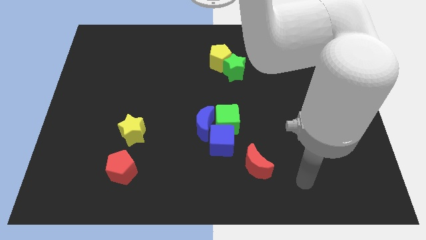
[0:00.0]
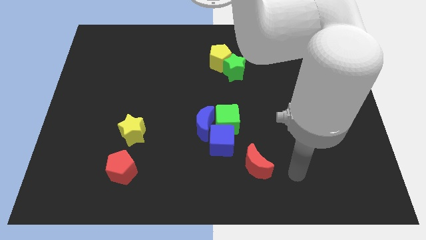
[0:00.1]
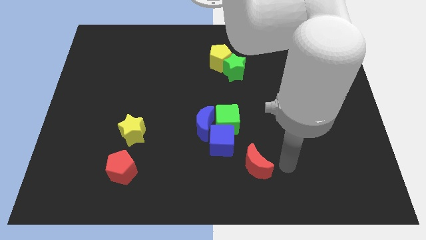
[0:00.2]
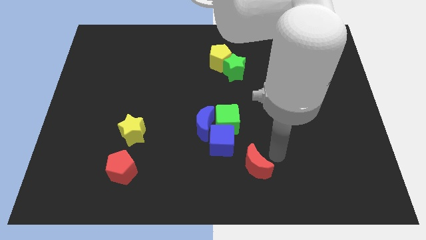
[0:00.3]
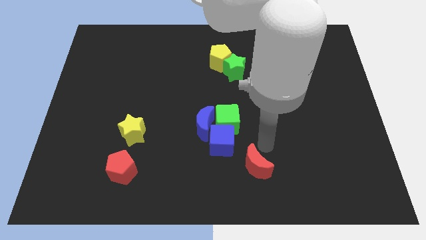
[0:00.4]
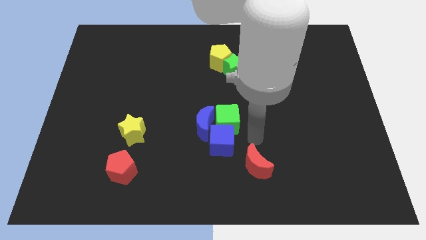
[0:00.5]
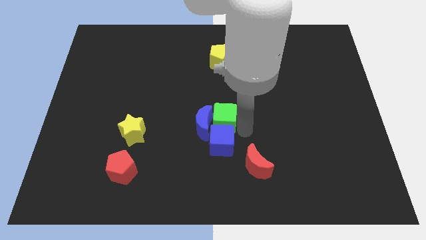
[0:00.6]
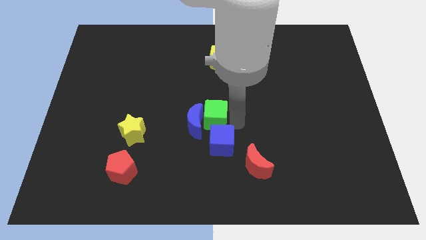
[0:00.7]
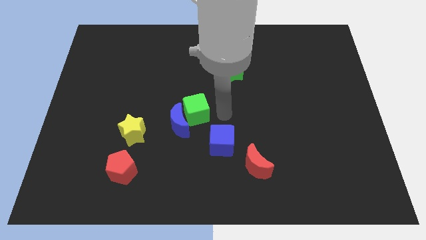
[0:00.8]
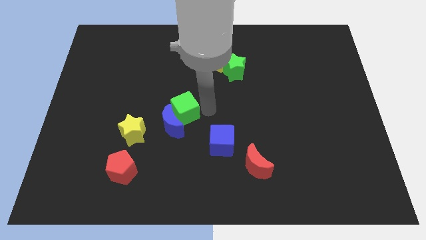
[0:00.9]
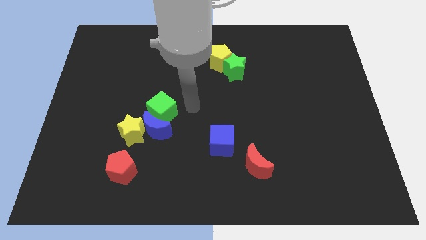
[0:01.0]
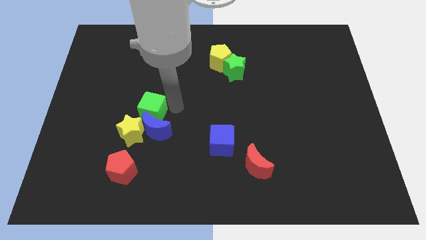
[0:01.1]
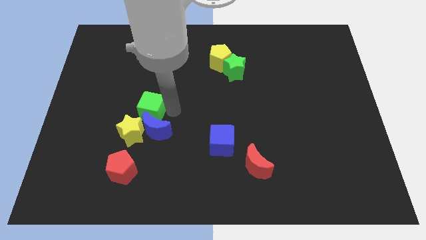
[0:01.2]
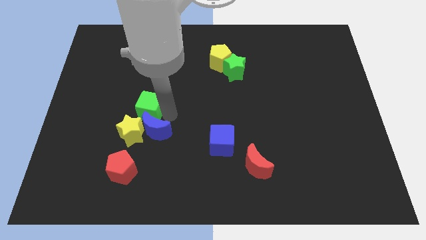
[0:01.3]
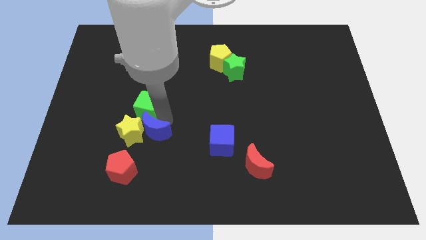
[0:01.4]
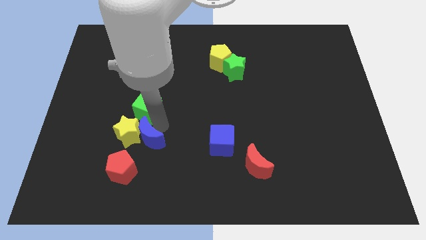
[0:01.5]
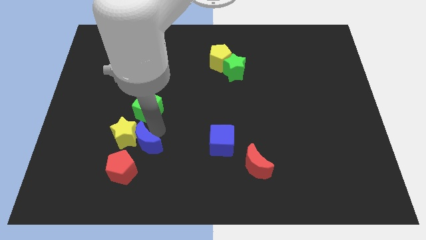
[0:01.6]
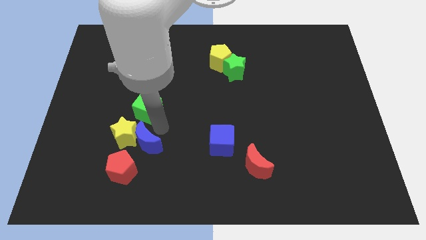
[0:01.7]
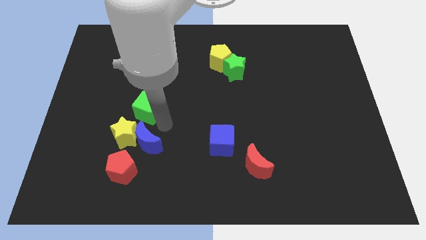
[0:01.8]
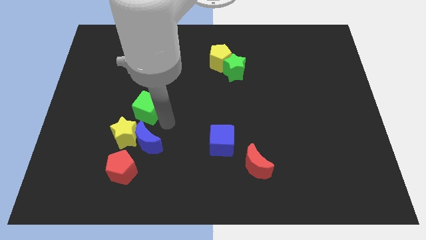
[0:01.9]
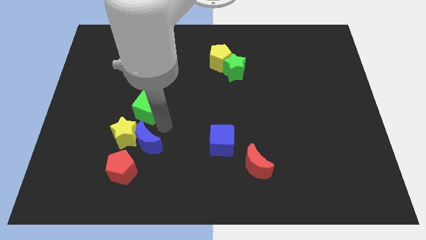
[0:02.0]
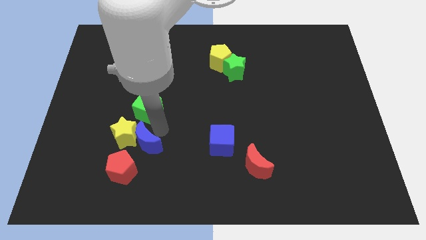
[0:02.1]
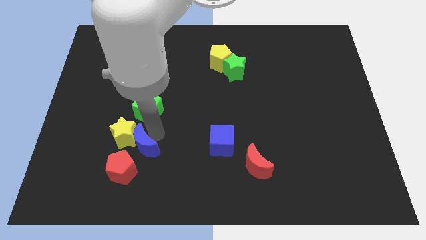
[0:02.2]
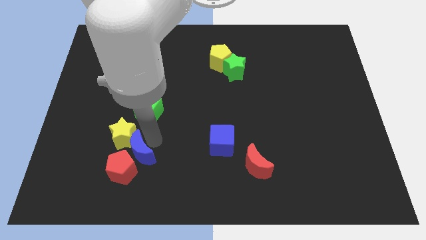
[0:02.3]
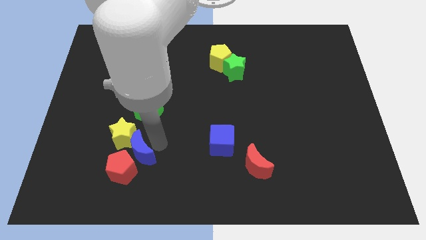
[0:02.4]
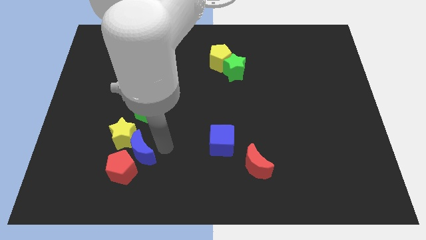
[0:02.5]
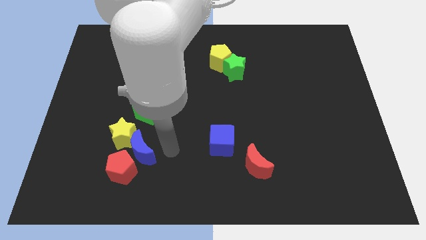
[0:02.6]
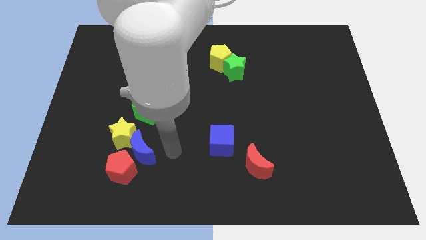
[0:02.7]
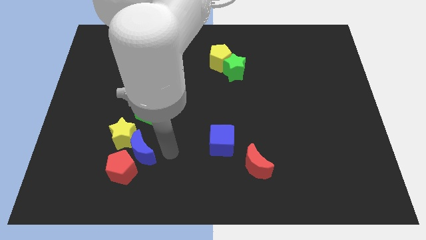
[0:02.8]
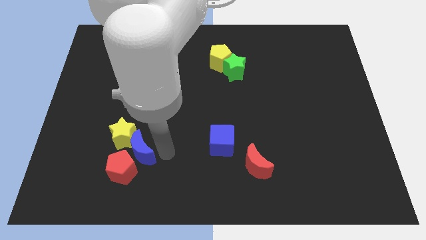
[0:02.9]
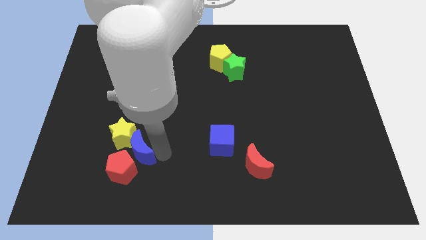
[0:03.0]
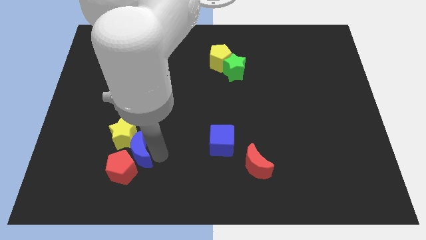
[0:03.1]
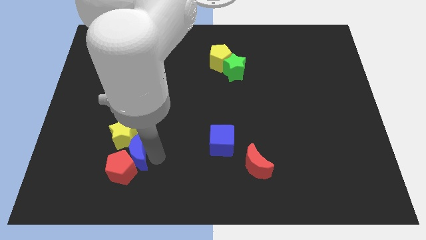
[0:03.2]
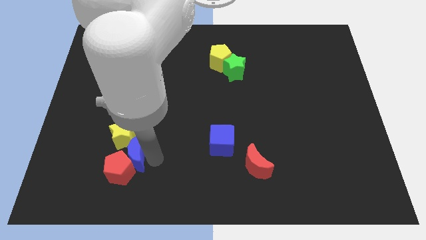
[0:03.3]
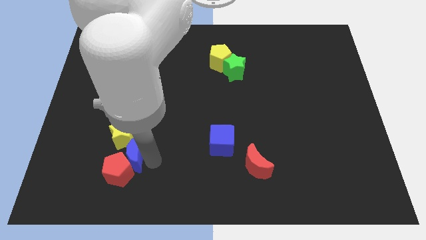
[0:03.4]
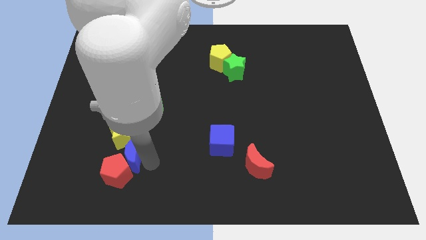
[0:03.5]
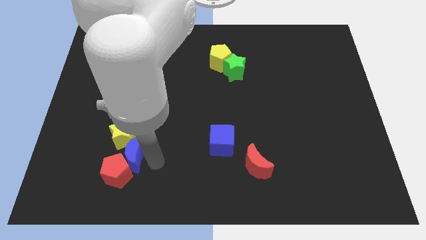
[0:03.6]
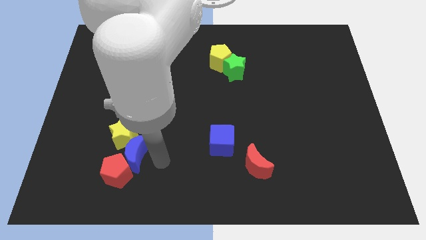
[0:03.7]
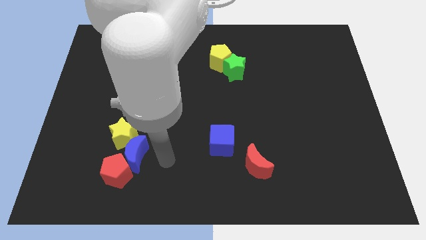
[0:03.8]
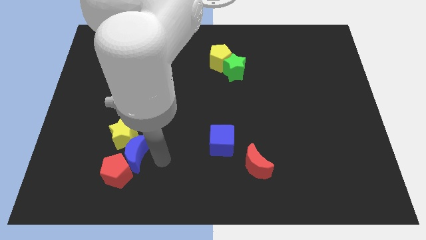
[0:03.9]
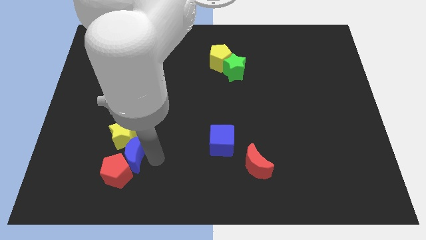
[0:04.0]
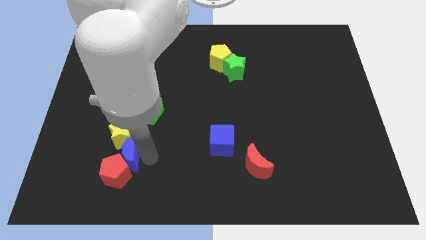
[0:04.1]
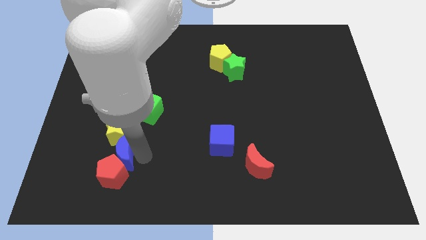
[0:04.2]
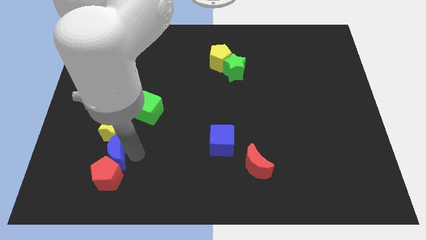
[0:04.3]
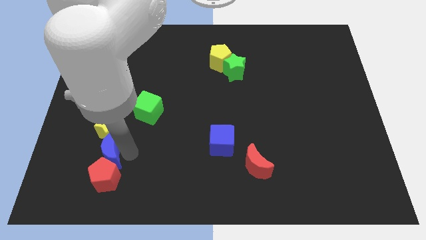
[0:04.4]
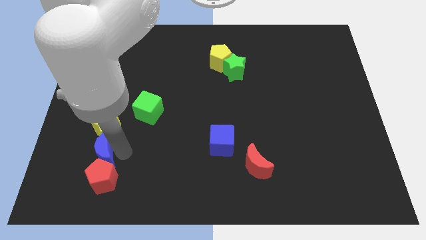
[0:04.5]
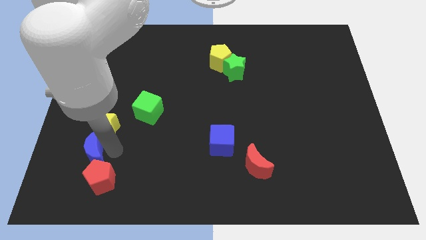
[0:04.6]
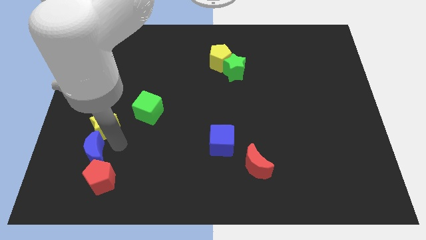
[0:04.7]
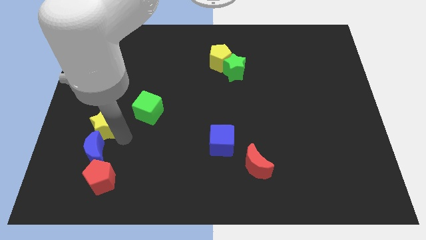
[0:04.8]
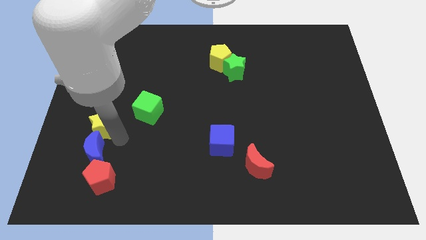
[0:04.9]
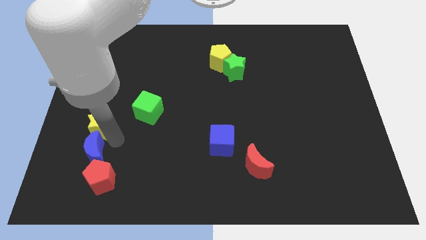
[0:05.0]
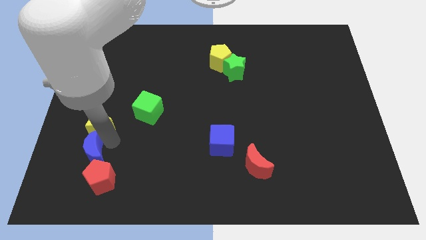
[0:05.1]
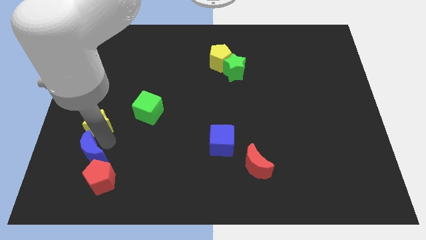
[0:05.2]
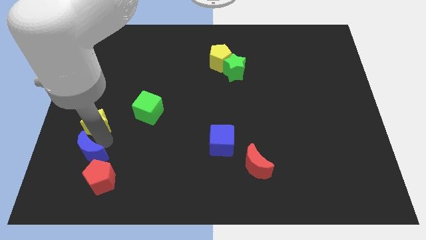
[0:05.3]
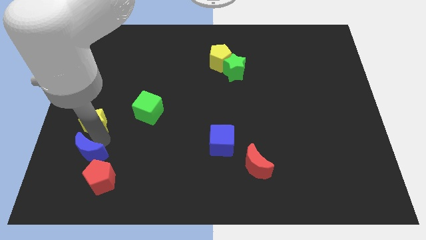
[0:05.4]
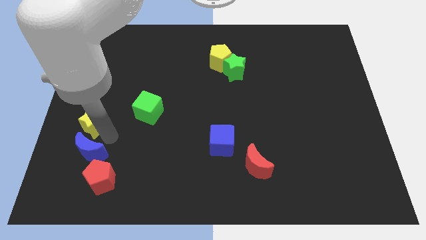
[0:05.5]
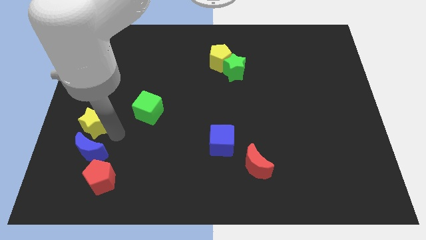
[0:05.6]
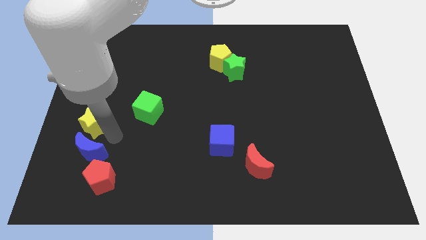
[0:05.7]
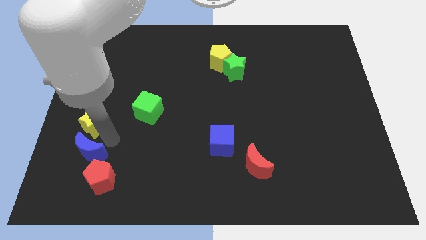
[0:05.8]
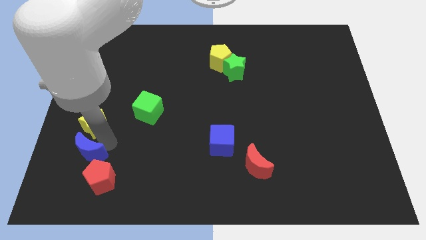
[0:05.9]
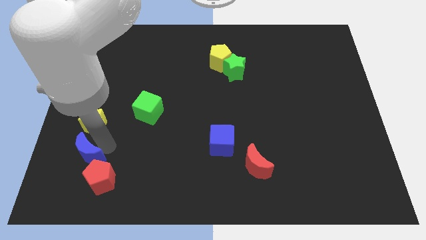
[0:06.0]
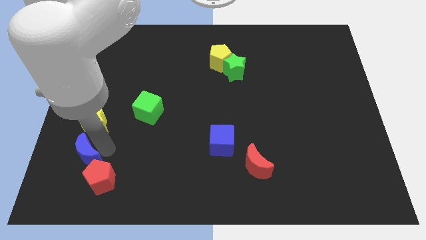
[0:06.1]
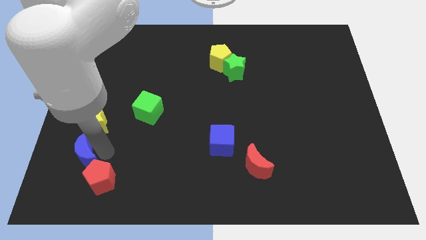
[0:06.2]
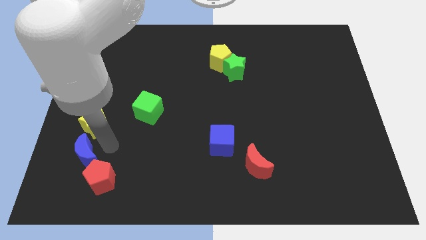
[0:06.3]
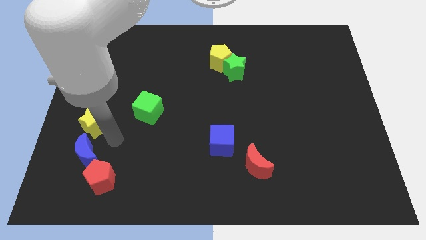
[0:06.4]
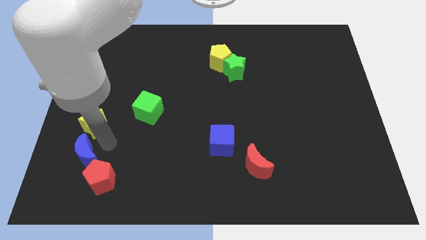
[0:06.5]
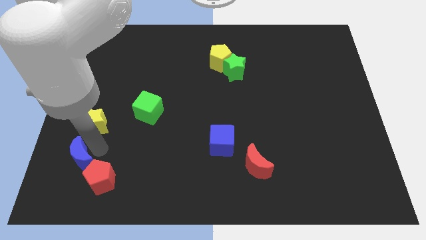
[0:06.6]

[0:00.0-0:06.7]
slide the blue moon to the left of the red pentagon

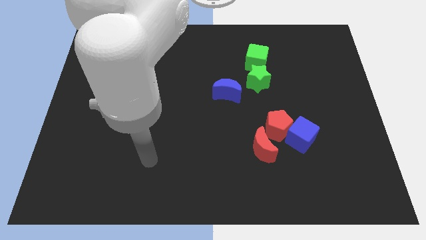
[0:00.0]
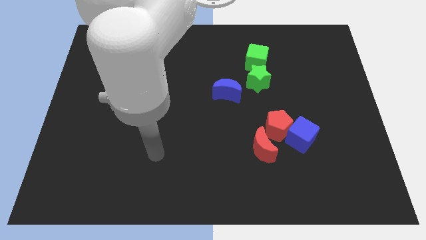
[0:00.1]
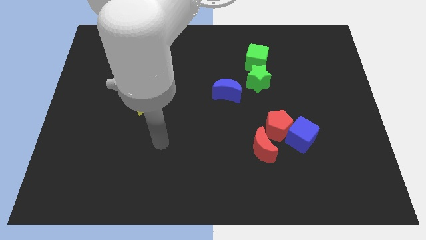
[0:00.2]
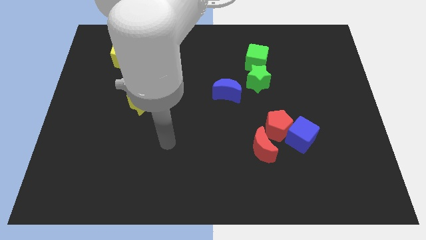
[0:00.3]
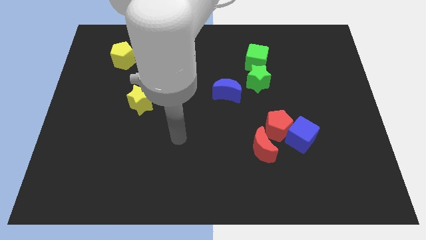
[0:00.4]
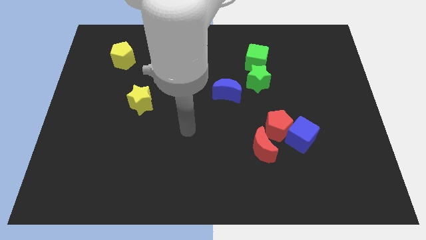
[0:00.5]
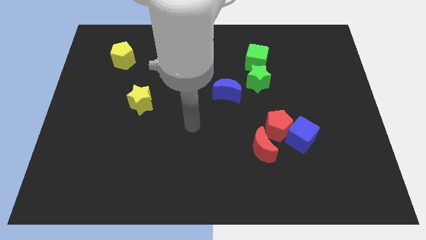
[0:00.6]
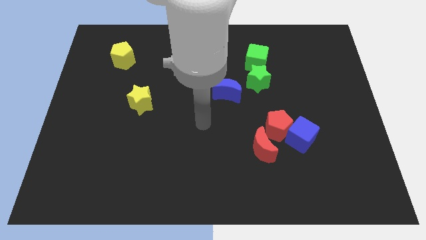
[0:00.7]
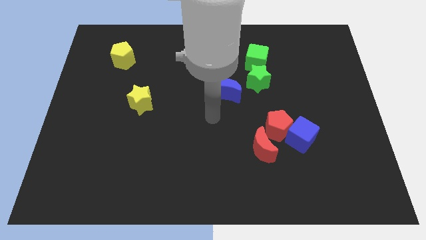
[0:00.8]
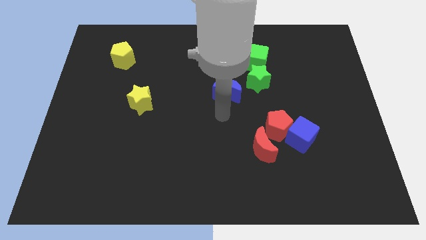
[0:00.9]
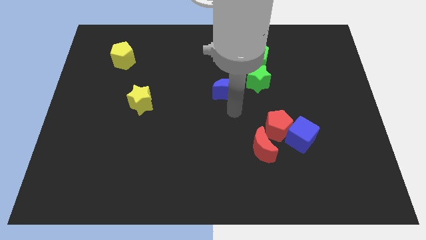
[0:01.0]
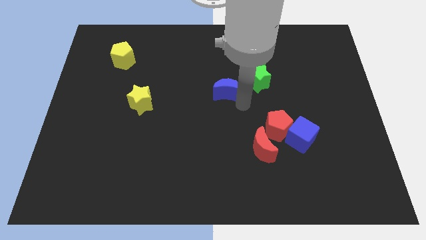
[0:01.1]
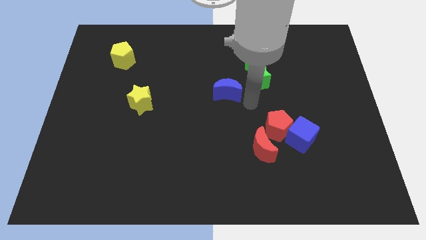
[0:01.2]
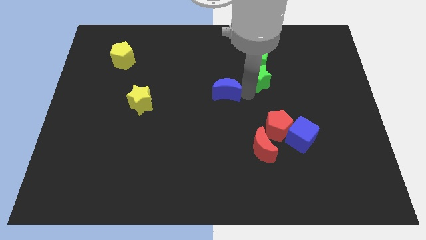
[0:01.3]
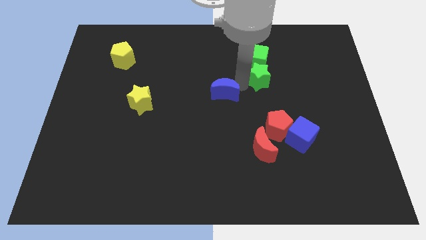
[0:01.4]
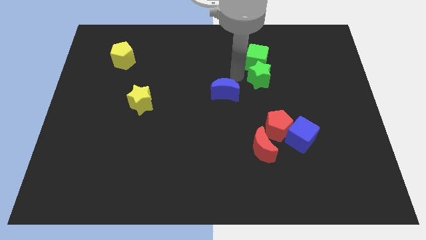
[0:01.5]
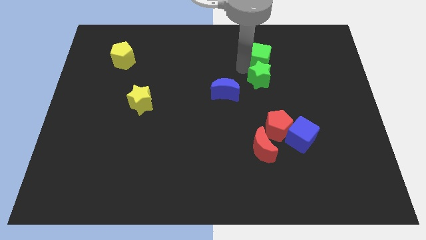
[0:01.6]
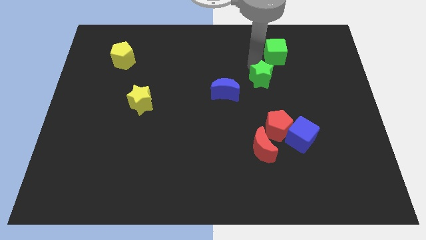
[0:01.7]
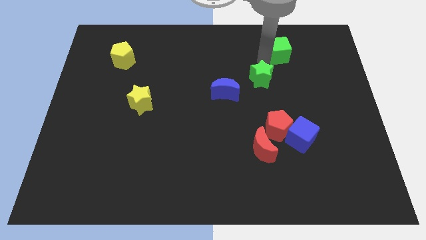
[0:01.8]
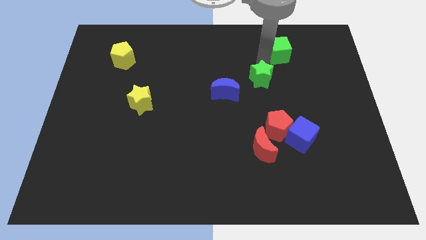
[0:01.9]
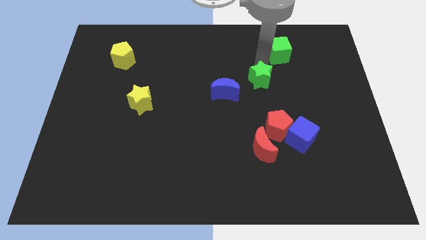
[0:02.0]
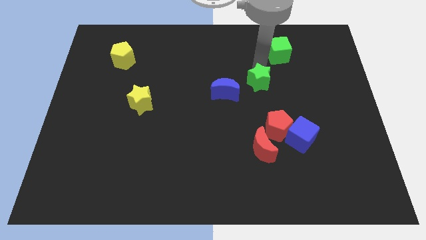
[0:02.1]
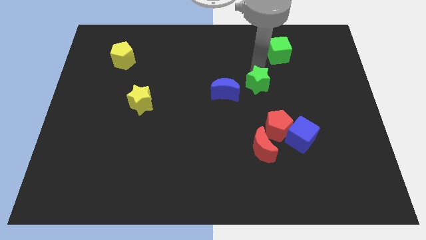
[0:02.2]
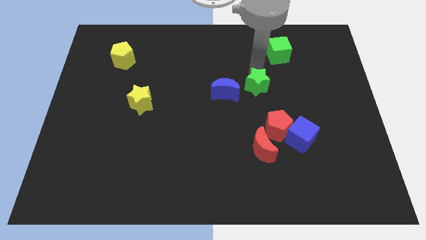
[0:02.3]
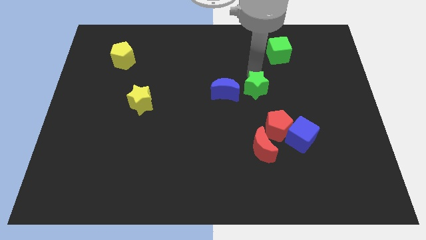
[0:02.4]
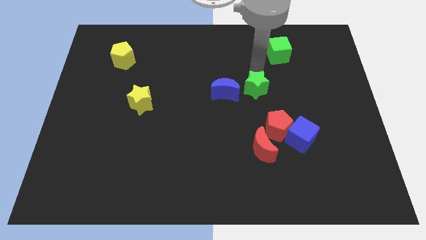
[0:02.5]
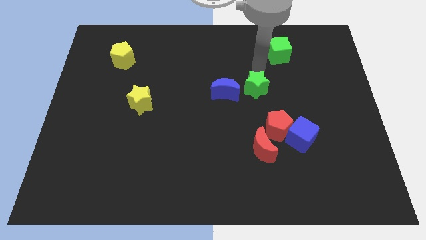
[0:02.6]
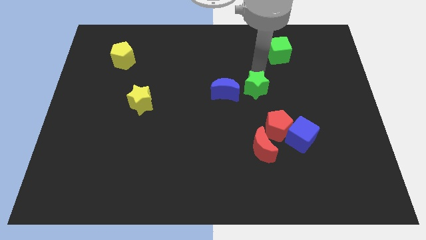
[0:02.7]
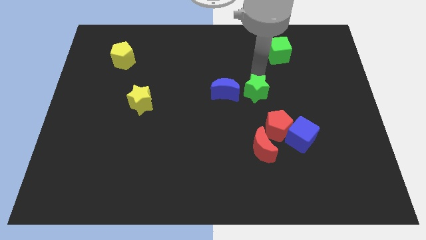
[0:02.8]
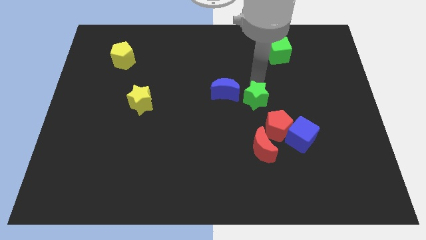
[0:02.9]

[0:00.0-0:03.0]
push the green star to the top left side of the red pentagon
